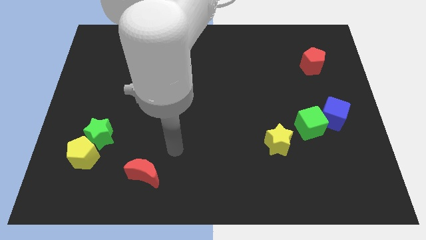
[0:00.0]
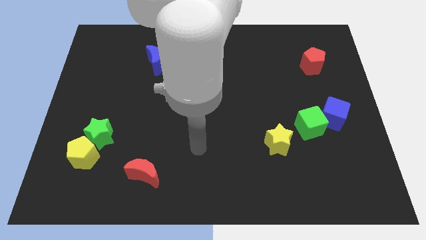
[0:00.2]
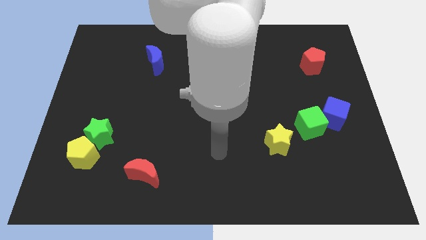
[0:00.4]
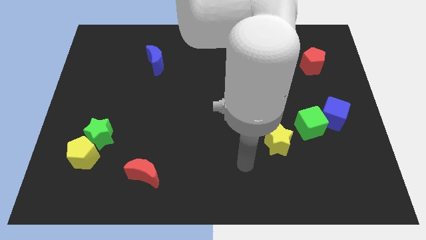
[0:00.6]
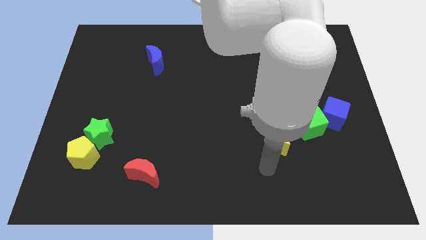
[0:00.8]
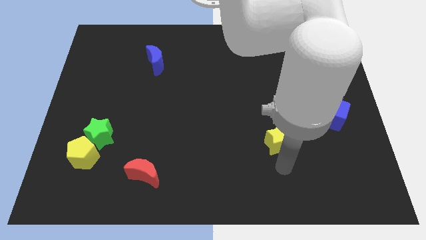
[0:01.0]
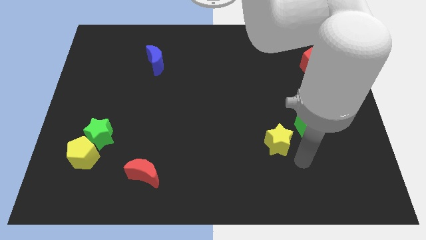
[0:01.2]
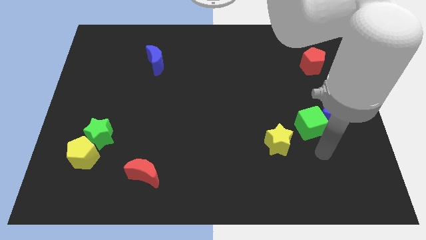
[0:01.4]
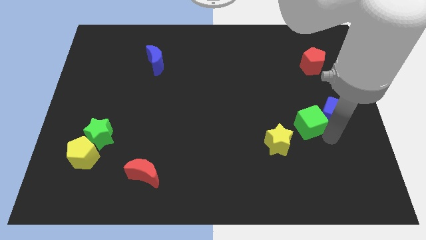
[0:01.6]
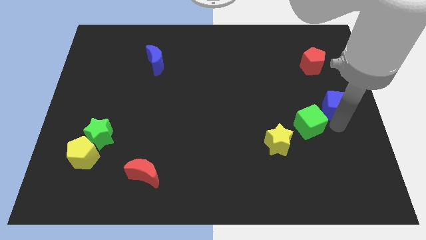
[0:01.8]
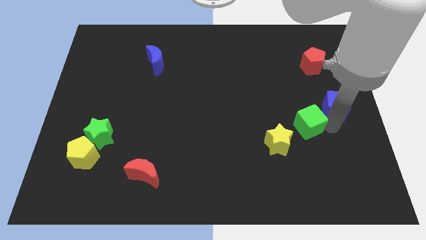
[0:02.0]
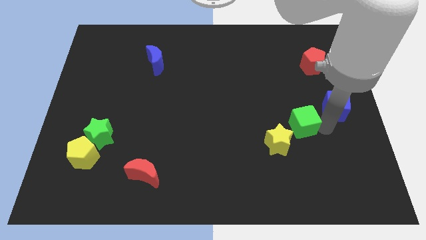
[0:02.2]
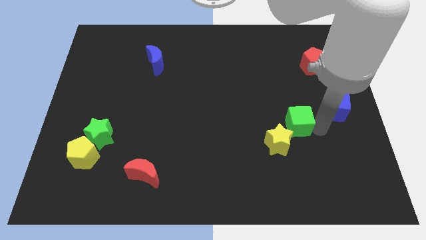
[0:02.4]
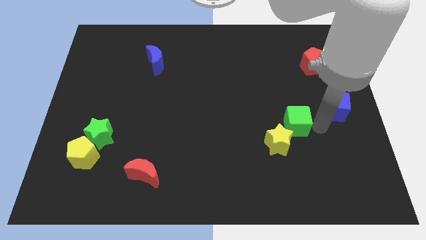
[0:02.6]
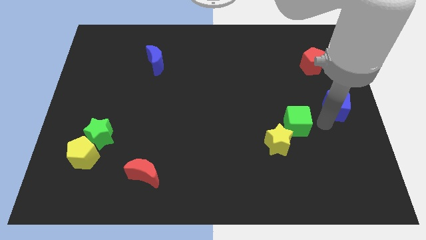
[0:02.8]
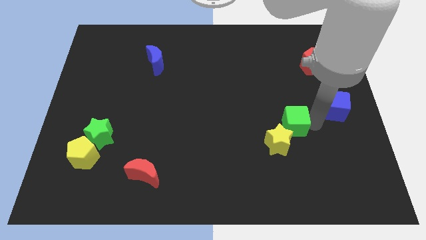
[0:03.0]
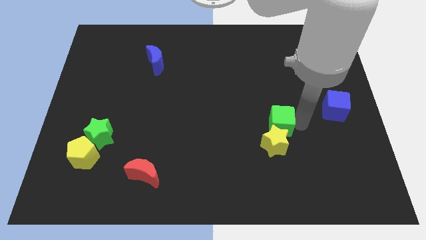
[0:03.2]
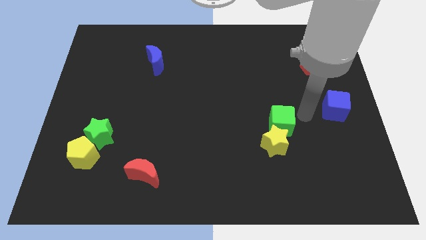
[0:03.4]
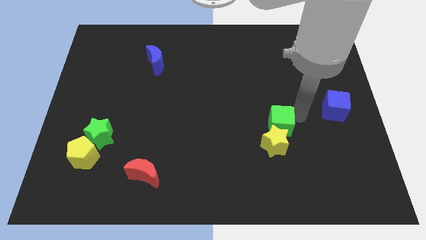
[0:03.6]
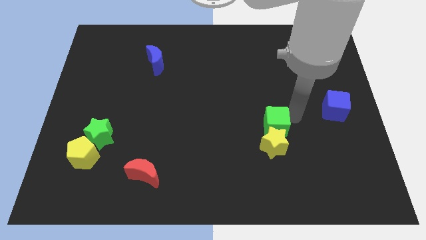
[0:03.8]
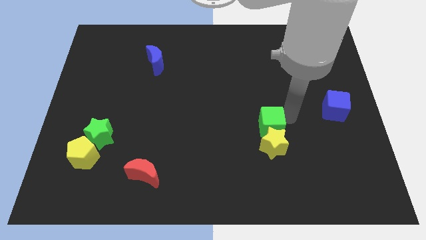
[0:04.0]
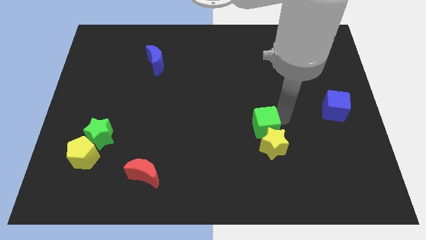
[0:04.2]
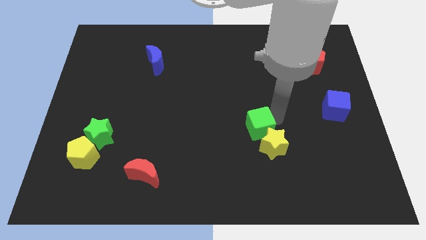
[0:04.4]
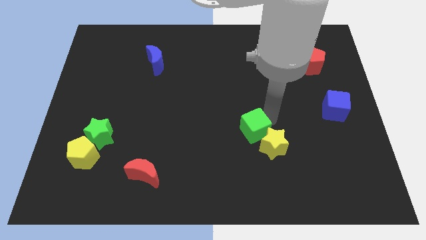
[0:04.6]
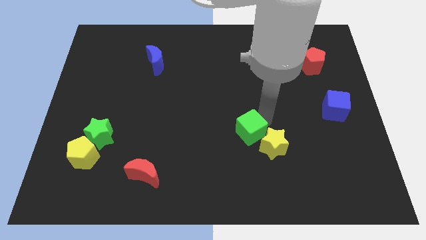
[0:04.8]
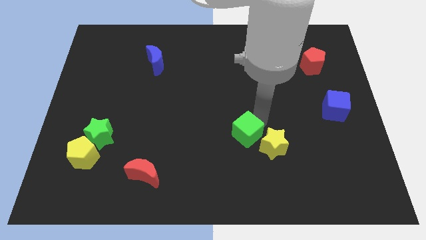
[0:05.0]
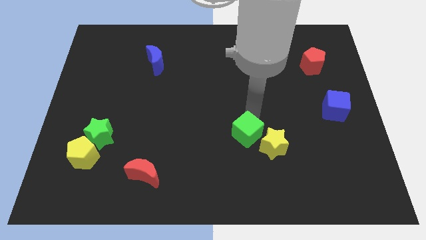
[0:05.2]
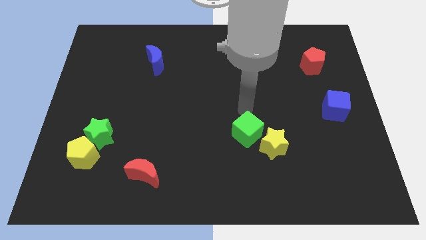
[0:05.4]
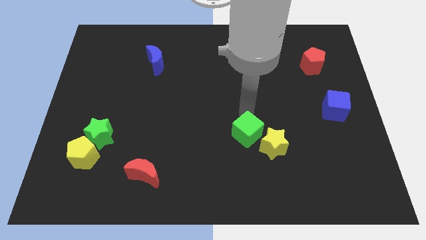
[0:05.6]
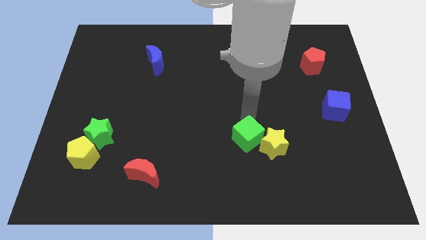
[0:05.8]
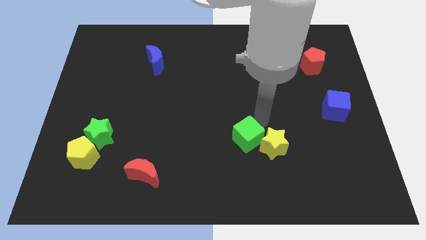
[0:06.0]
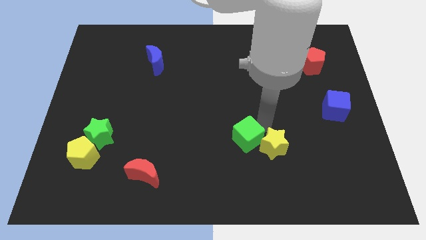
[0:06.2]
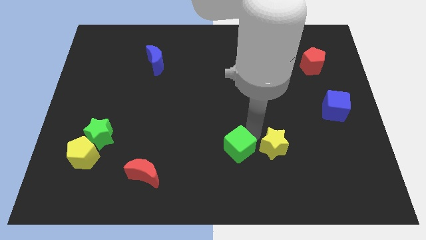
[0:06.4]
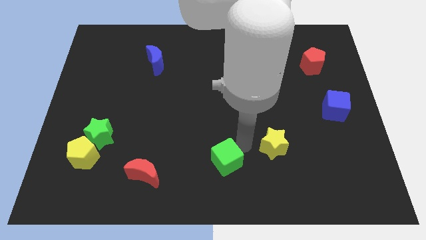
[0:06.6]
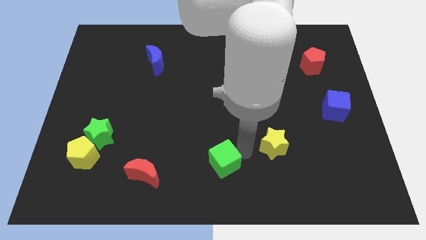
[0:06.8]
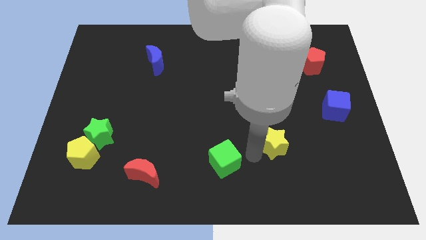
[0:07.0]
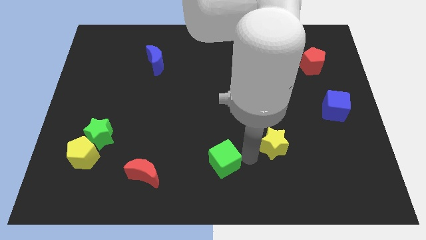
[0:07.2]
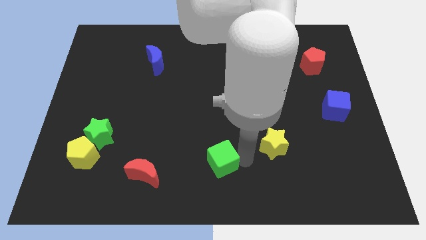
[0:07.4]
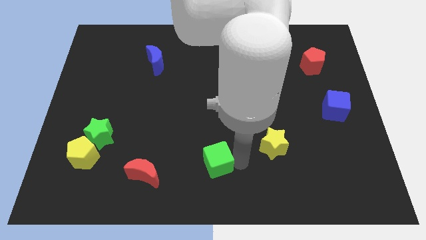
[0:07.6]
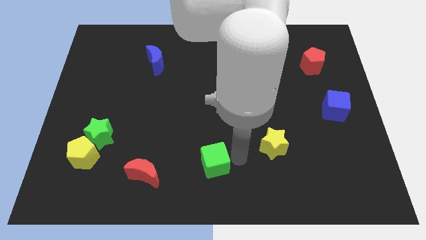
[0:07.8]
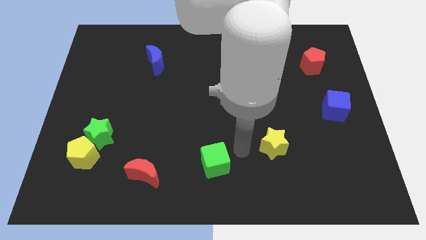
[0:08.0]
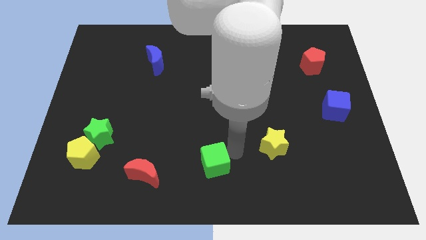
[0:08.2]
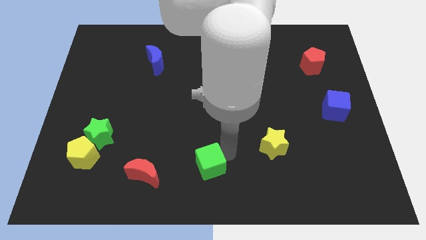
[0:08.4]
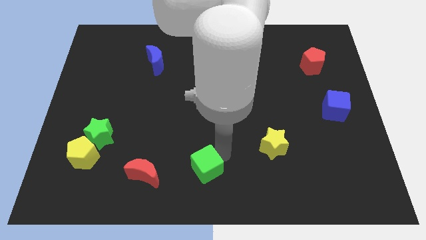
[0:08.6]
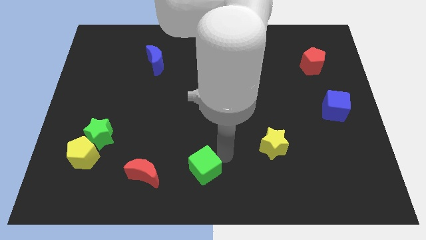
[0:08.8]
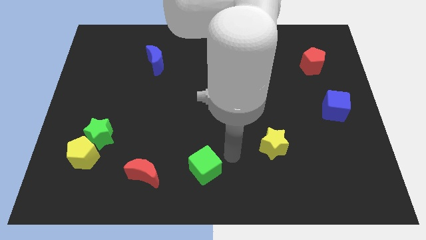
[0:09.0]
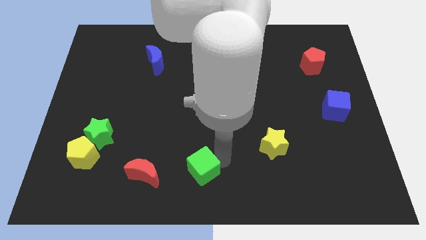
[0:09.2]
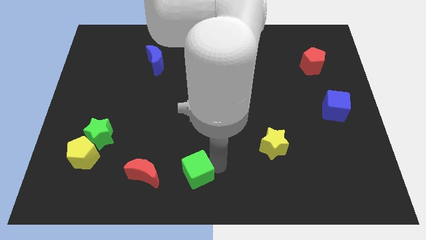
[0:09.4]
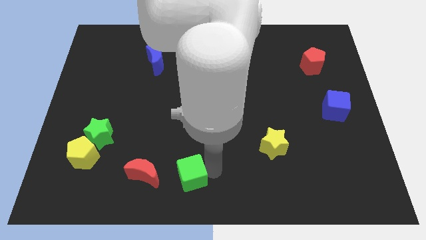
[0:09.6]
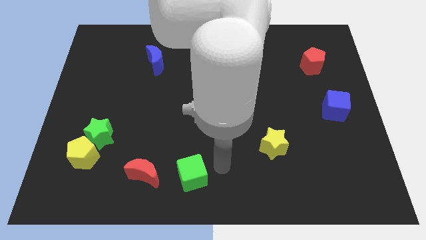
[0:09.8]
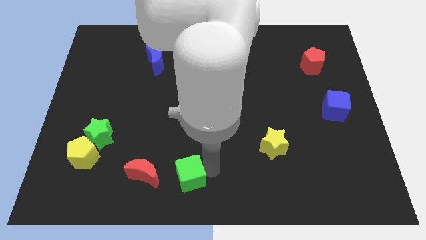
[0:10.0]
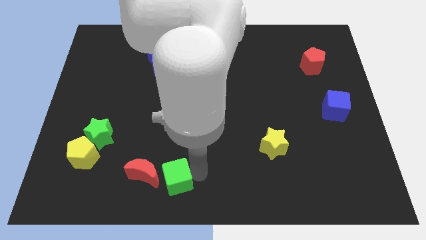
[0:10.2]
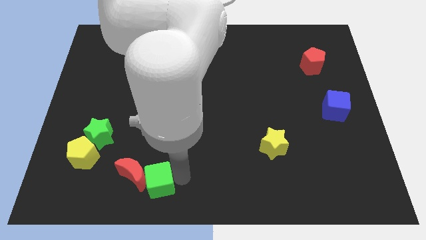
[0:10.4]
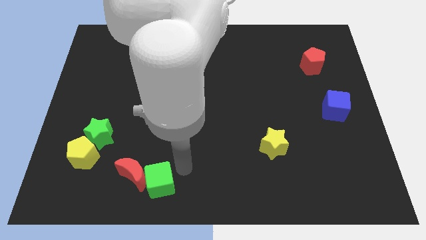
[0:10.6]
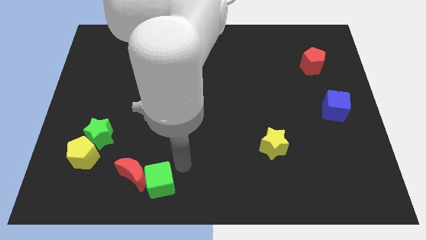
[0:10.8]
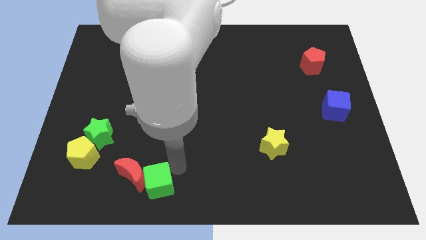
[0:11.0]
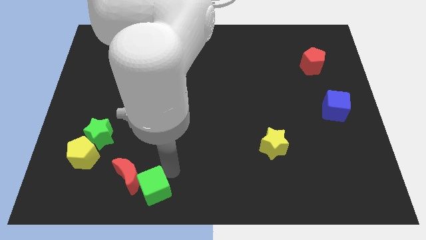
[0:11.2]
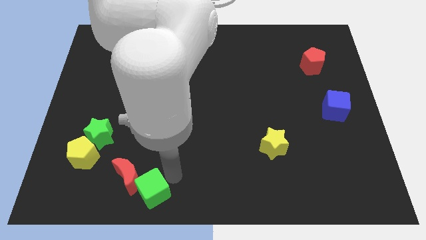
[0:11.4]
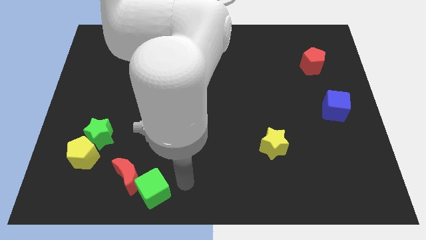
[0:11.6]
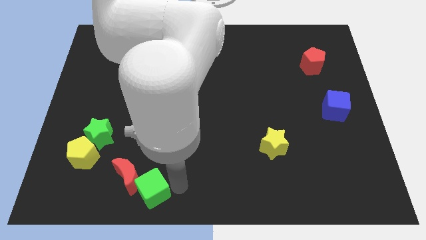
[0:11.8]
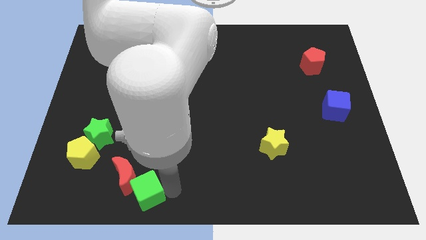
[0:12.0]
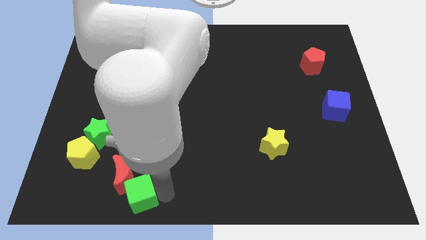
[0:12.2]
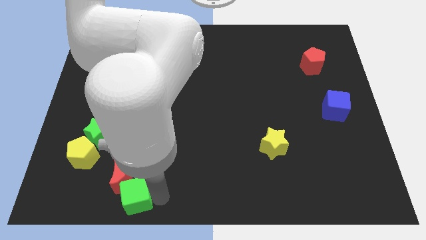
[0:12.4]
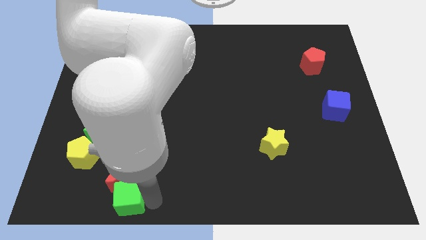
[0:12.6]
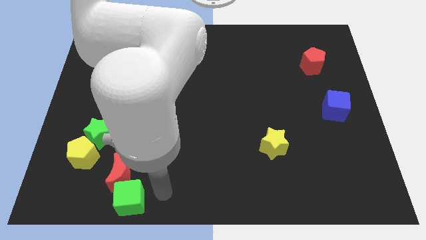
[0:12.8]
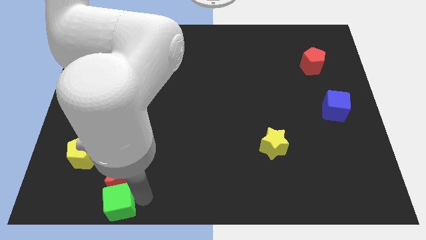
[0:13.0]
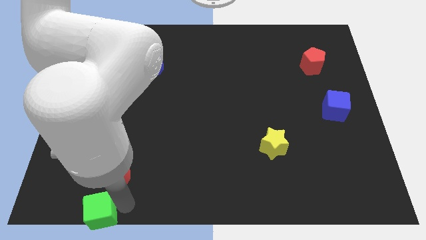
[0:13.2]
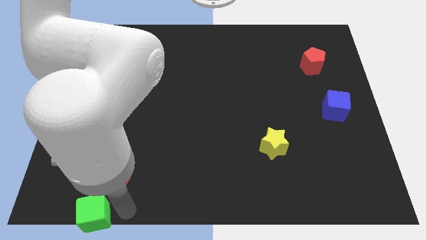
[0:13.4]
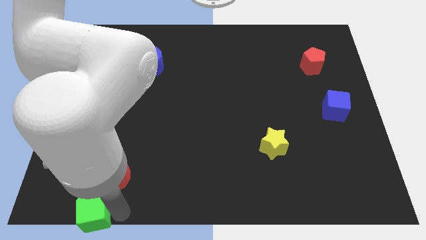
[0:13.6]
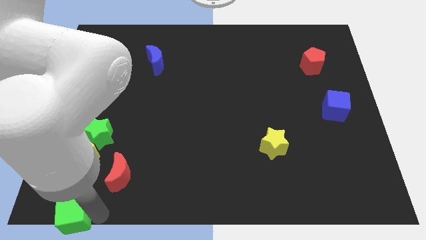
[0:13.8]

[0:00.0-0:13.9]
slide the green cube to the bottom left of the board

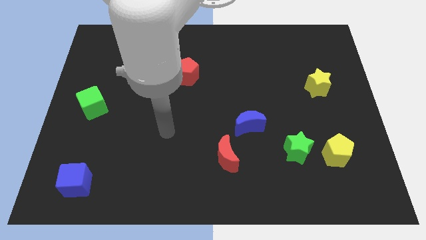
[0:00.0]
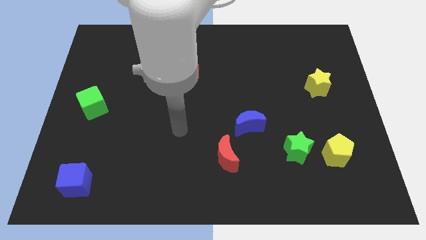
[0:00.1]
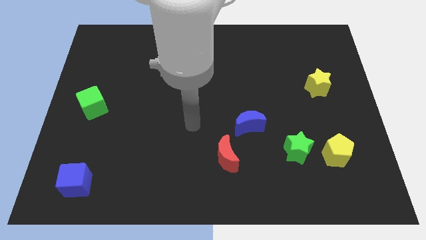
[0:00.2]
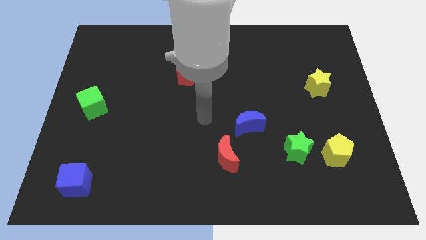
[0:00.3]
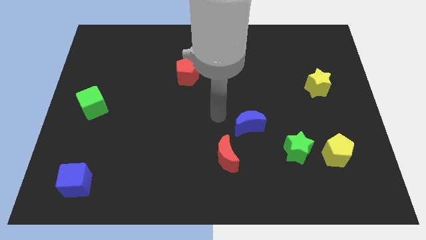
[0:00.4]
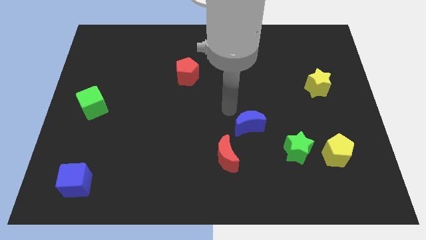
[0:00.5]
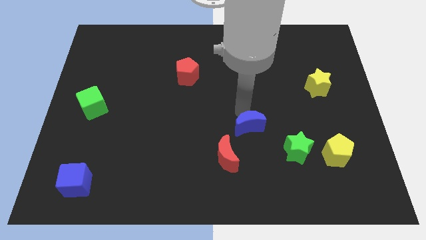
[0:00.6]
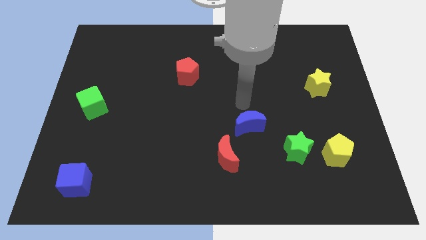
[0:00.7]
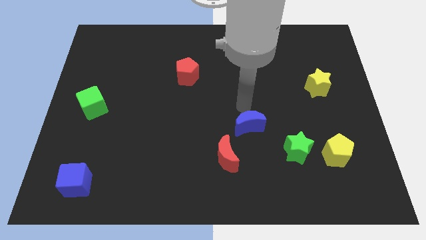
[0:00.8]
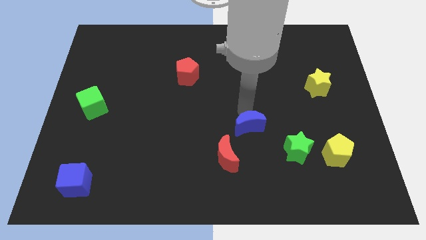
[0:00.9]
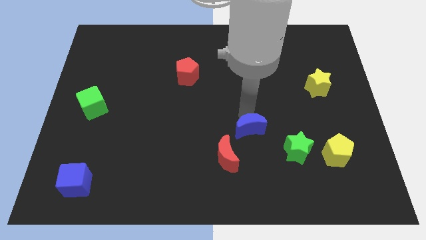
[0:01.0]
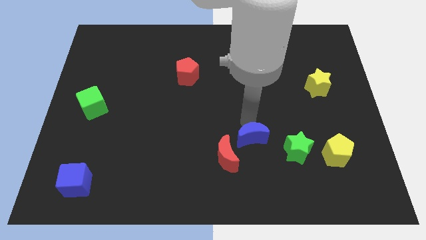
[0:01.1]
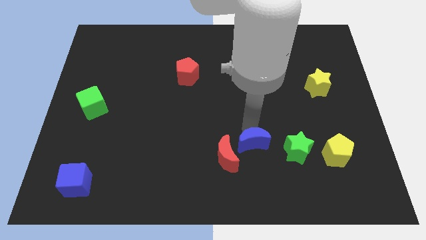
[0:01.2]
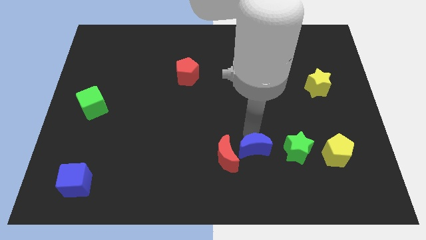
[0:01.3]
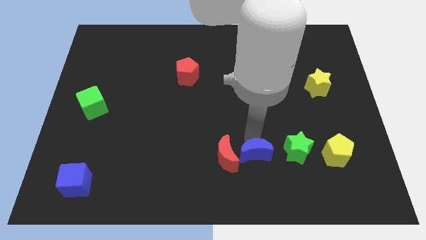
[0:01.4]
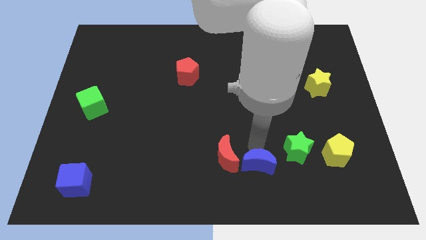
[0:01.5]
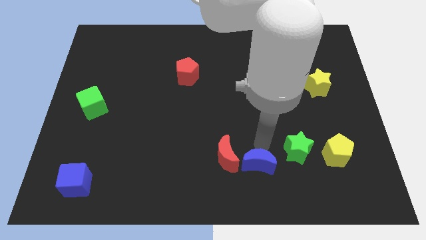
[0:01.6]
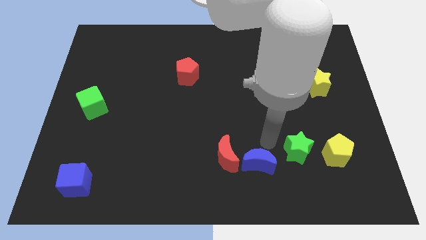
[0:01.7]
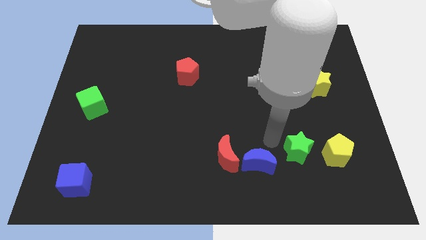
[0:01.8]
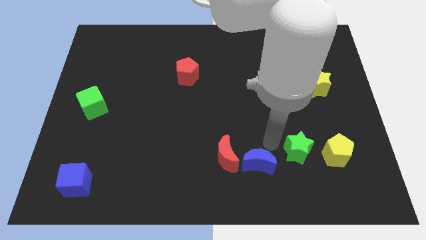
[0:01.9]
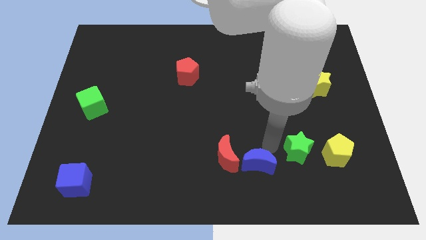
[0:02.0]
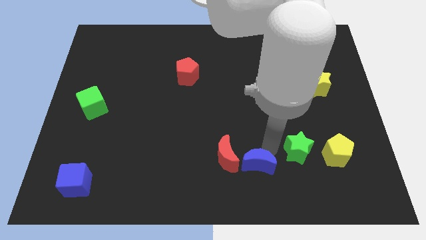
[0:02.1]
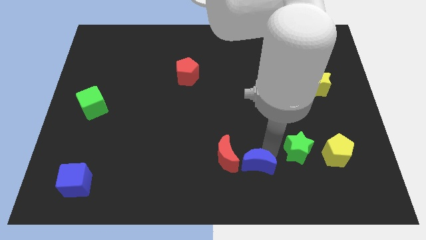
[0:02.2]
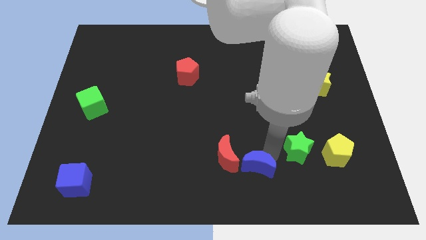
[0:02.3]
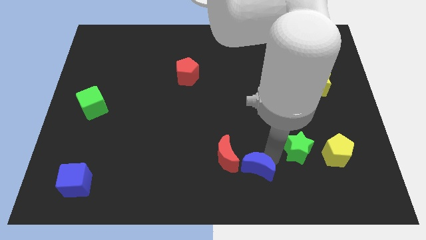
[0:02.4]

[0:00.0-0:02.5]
move the blue moon to the bottom
